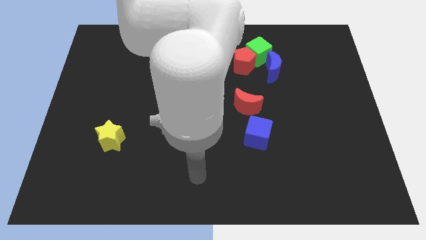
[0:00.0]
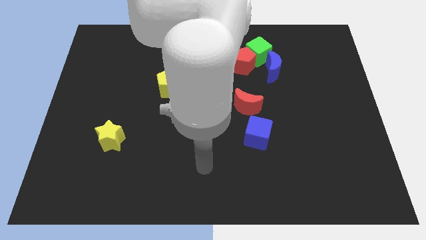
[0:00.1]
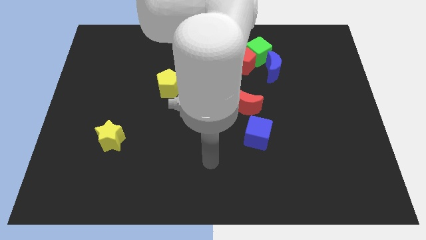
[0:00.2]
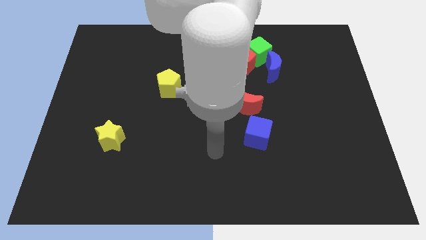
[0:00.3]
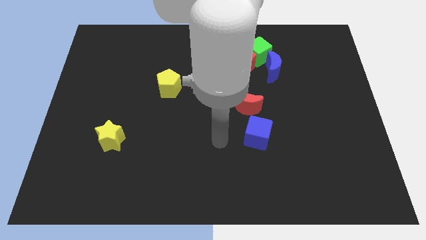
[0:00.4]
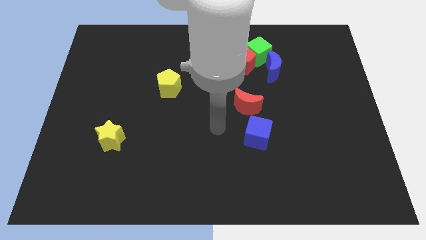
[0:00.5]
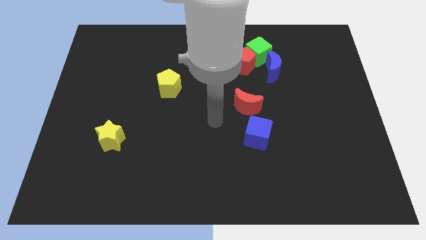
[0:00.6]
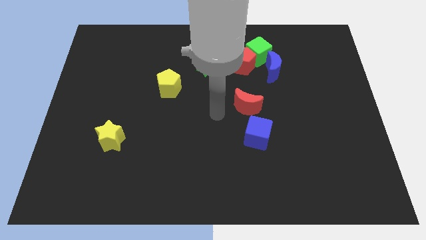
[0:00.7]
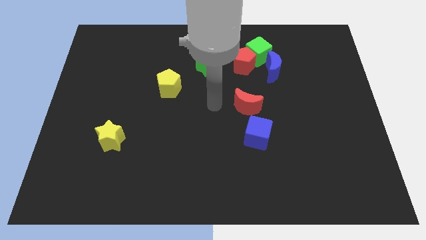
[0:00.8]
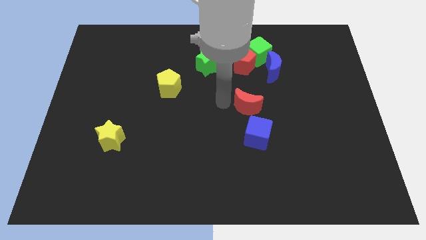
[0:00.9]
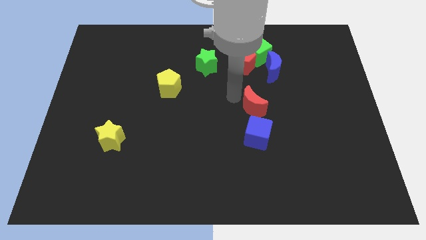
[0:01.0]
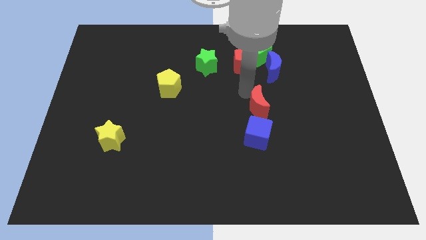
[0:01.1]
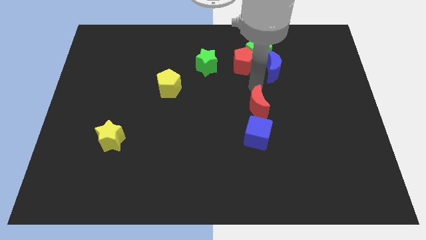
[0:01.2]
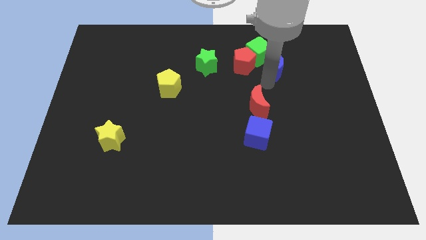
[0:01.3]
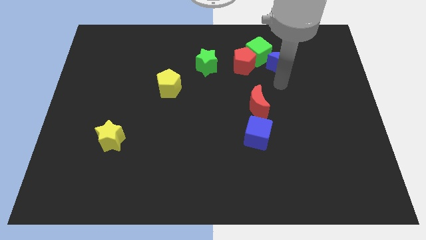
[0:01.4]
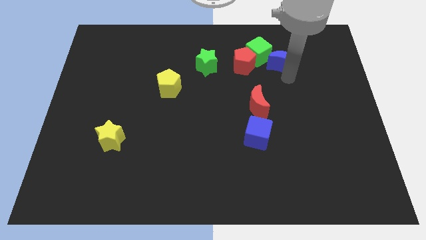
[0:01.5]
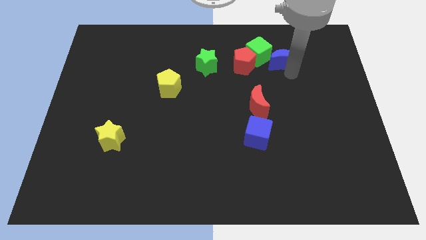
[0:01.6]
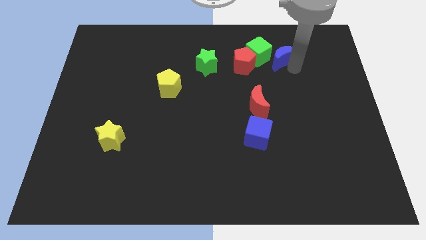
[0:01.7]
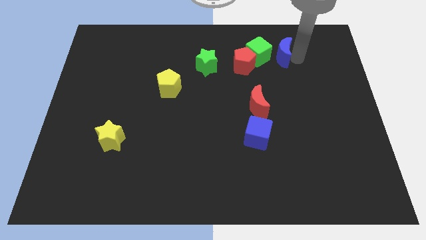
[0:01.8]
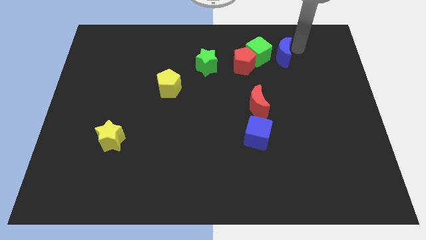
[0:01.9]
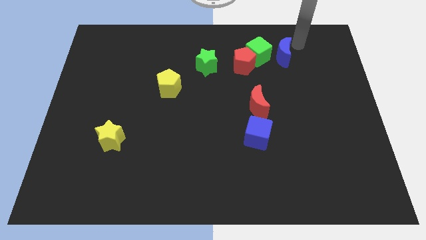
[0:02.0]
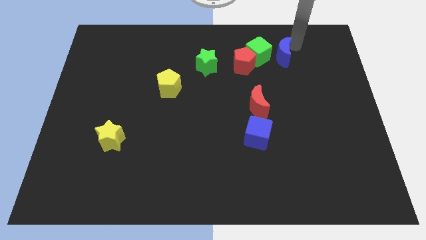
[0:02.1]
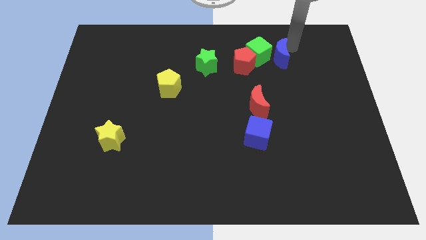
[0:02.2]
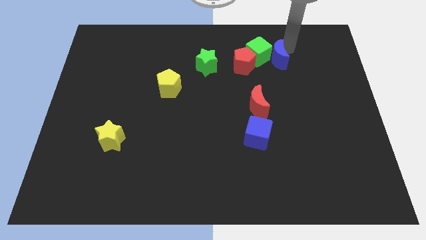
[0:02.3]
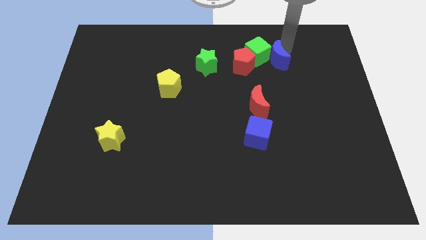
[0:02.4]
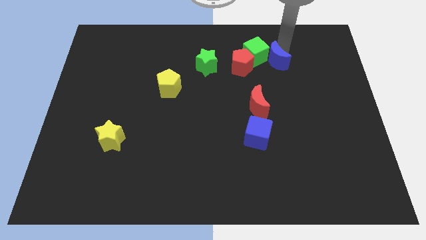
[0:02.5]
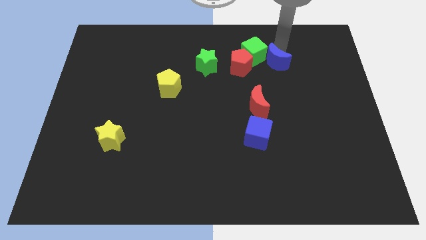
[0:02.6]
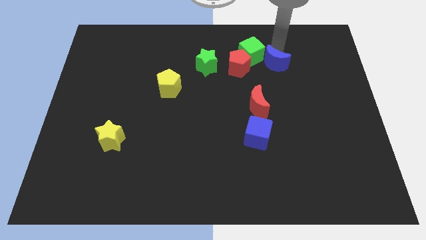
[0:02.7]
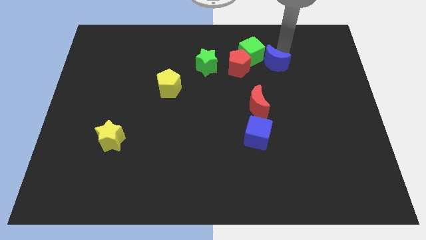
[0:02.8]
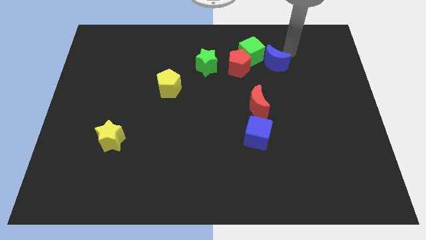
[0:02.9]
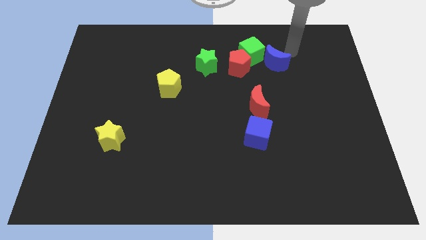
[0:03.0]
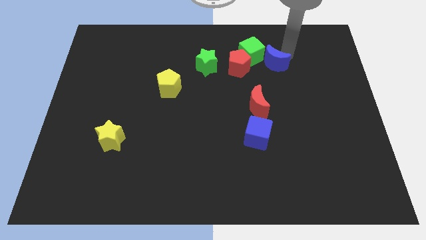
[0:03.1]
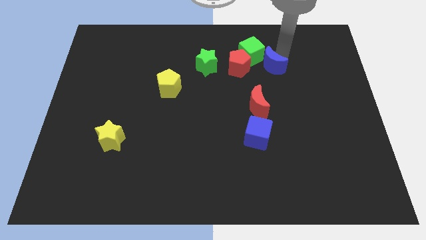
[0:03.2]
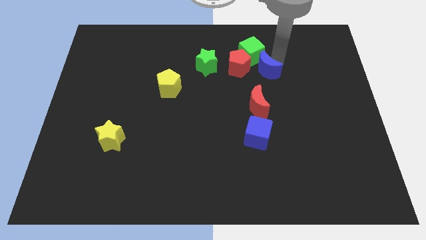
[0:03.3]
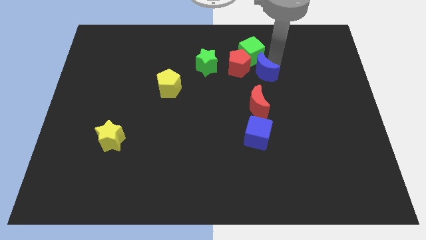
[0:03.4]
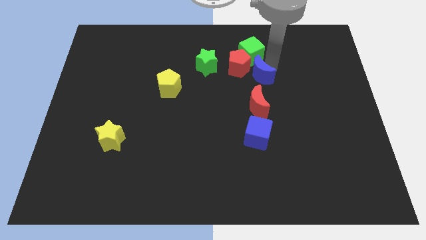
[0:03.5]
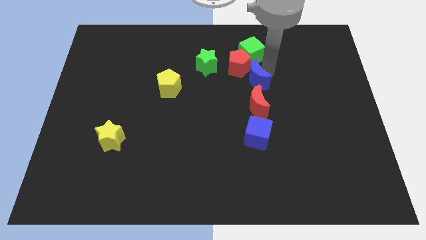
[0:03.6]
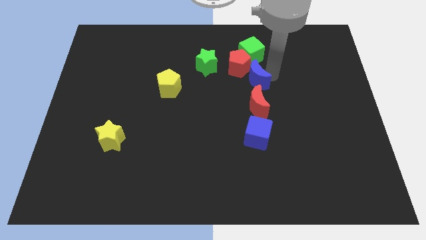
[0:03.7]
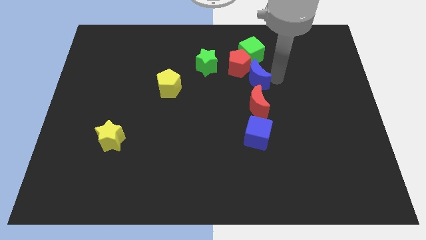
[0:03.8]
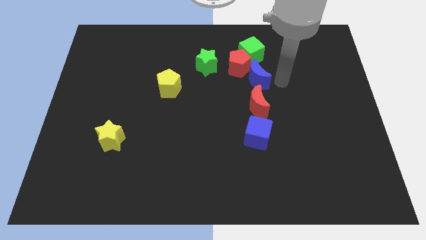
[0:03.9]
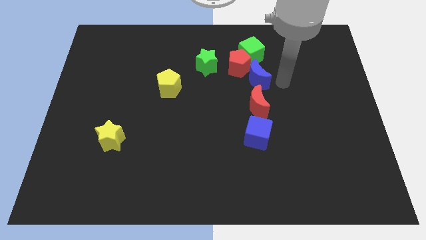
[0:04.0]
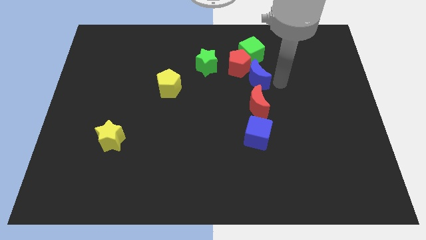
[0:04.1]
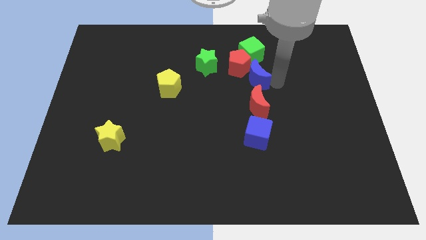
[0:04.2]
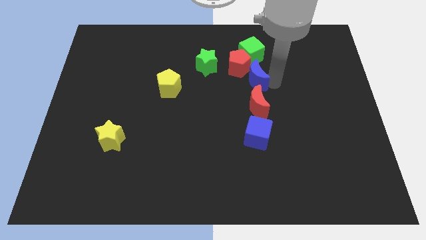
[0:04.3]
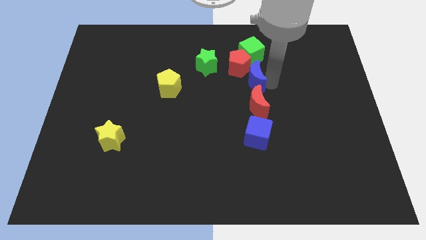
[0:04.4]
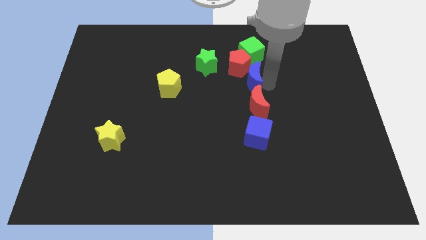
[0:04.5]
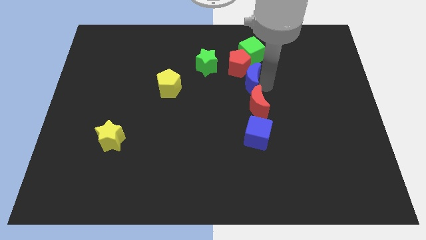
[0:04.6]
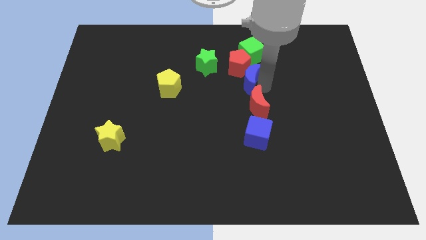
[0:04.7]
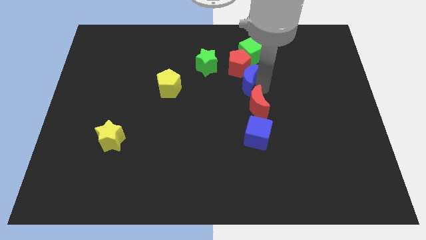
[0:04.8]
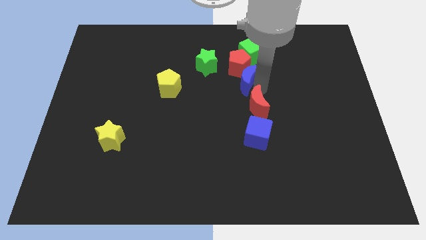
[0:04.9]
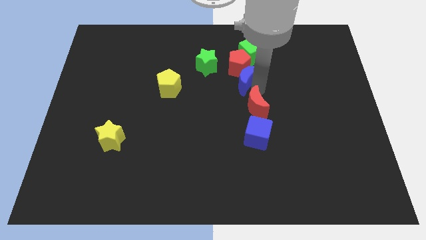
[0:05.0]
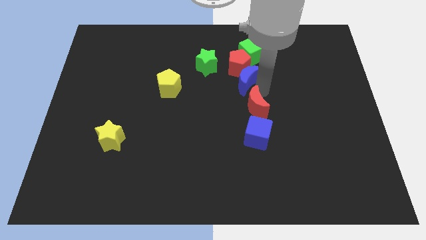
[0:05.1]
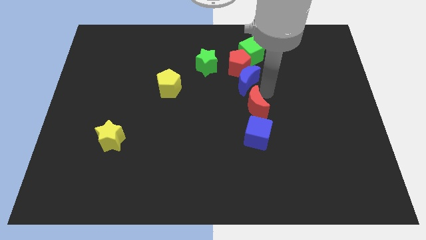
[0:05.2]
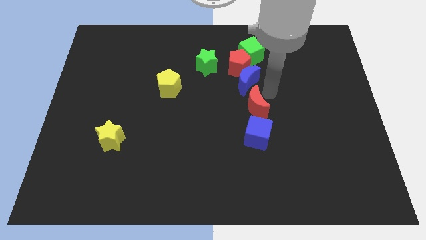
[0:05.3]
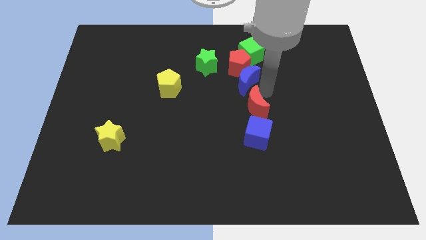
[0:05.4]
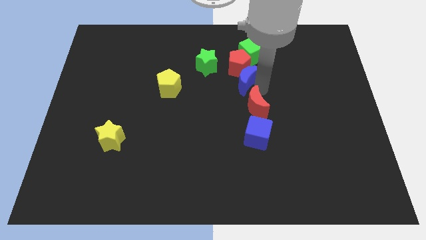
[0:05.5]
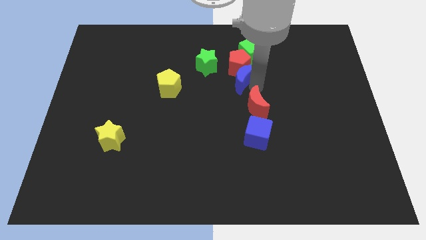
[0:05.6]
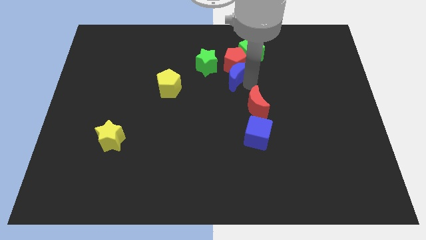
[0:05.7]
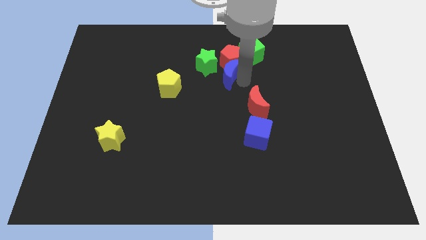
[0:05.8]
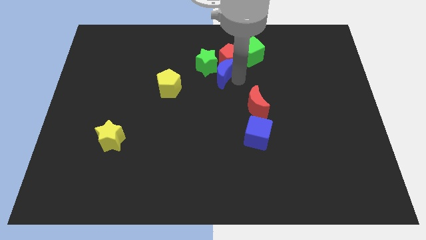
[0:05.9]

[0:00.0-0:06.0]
move the blue moon next to the green star

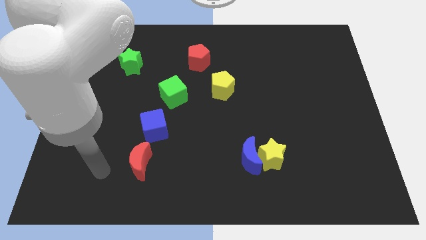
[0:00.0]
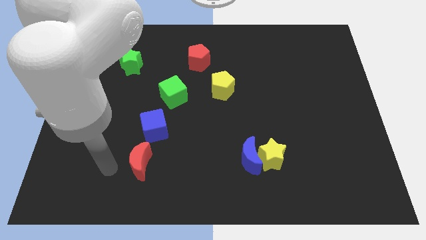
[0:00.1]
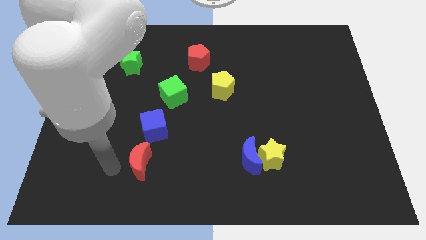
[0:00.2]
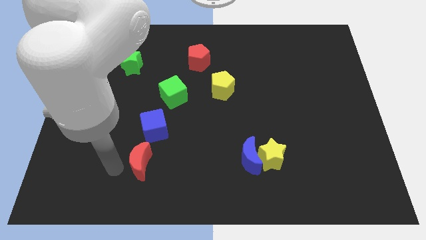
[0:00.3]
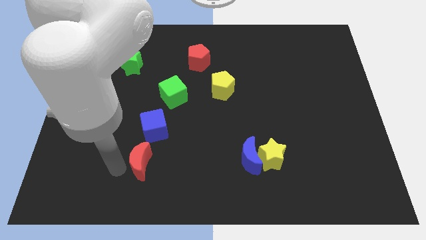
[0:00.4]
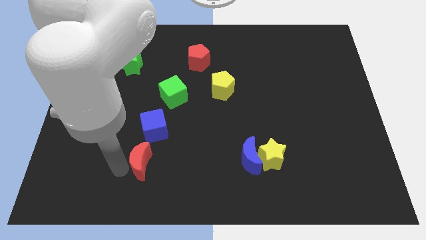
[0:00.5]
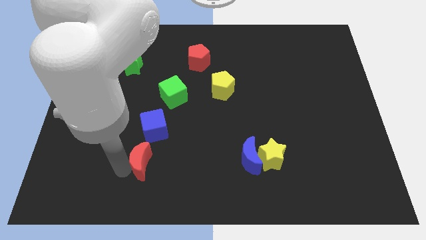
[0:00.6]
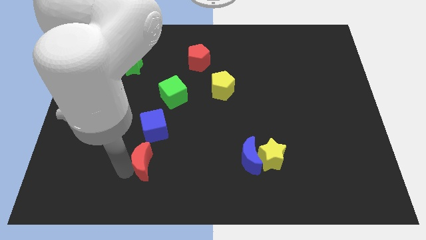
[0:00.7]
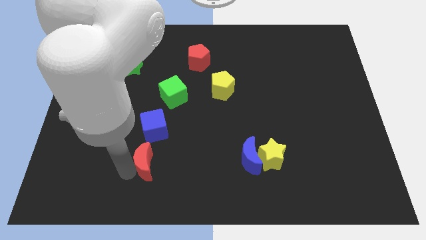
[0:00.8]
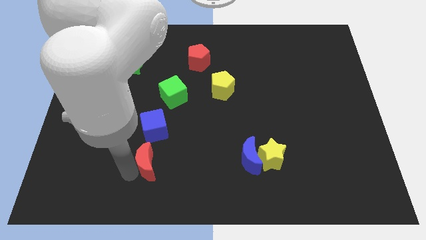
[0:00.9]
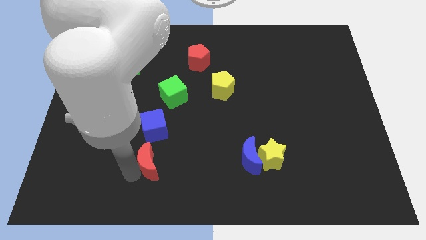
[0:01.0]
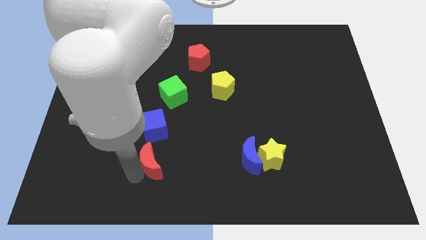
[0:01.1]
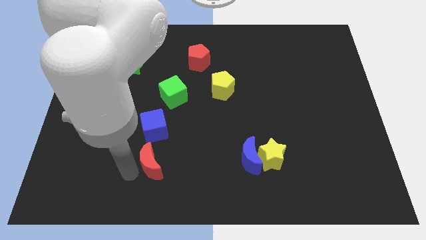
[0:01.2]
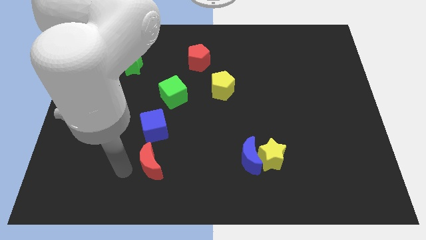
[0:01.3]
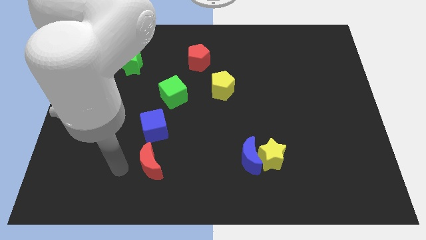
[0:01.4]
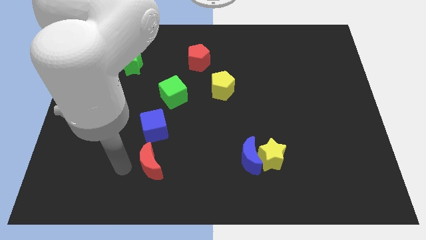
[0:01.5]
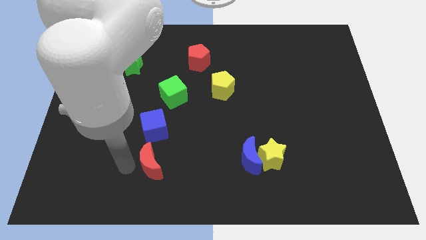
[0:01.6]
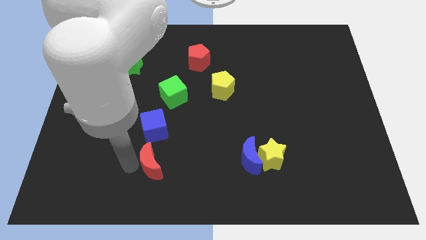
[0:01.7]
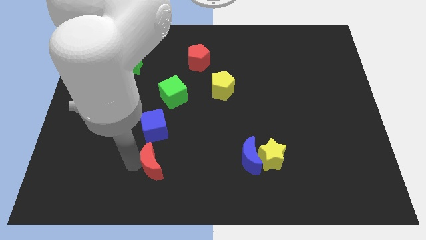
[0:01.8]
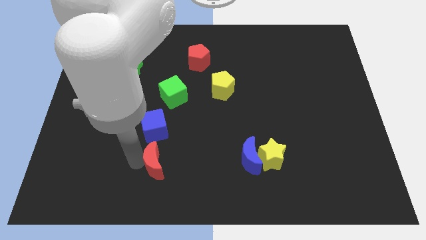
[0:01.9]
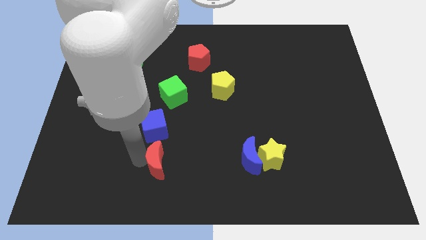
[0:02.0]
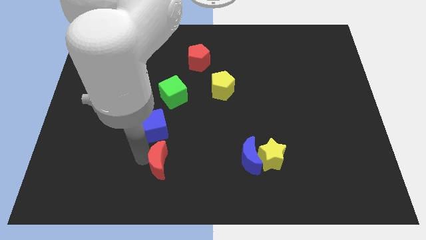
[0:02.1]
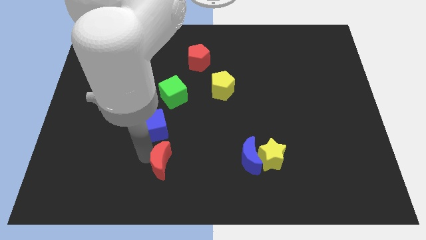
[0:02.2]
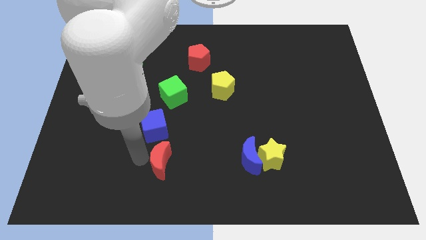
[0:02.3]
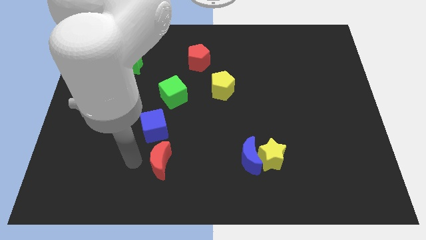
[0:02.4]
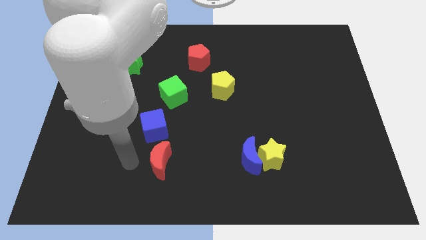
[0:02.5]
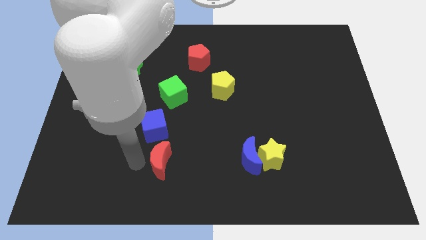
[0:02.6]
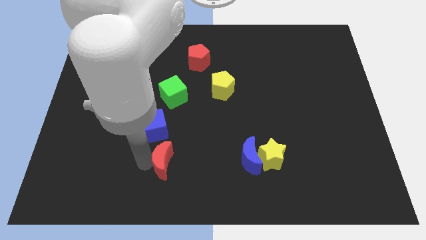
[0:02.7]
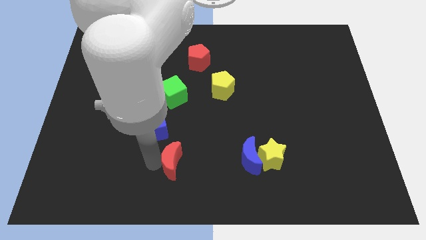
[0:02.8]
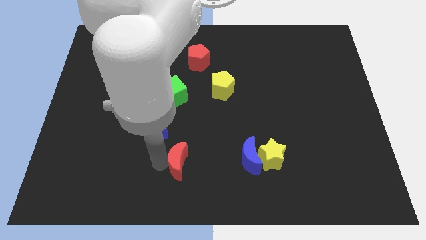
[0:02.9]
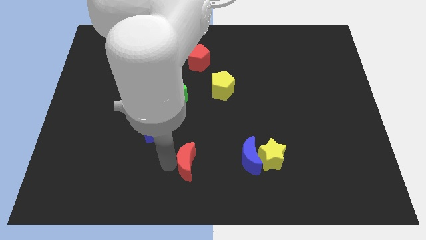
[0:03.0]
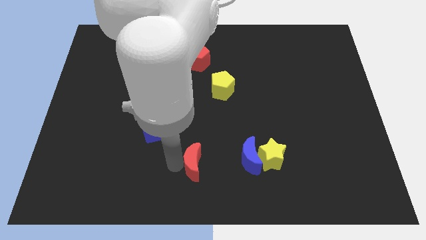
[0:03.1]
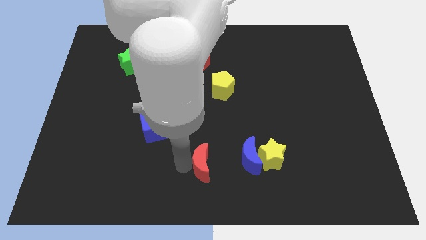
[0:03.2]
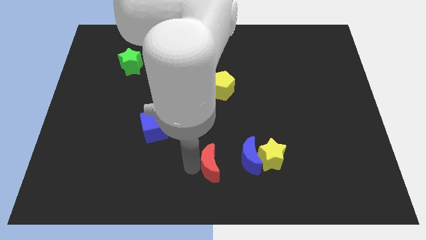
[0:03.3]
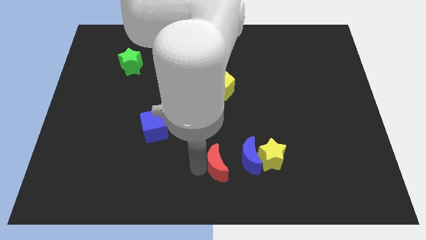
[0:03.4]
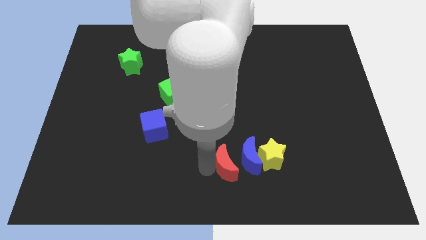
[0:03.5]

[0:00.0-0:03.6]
push the red moon towards the blue moon
